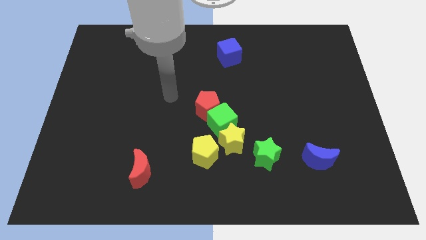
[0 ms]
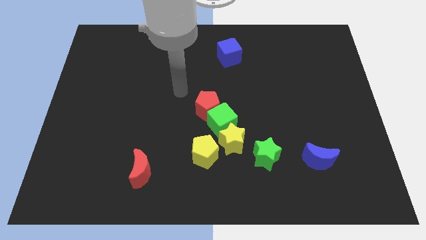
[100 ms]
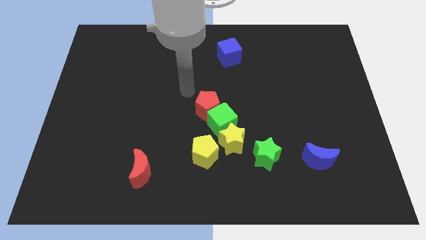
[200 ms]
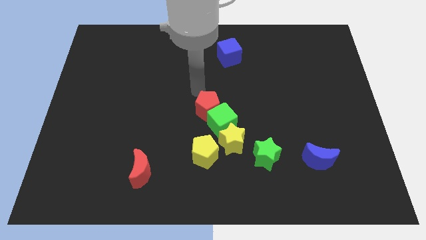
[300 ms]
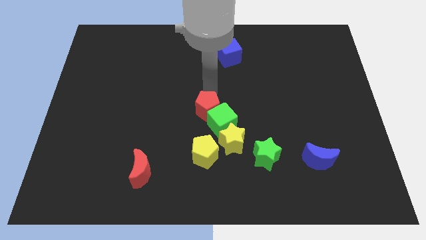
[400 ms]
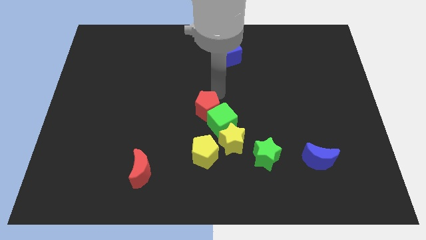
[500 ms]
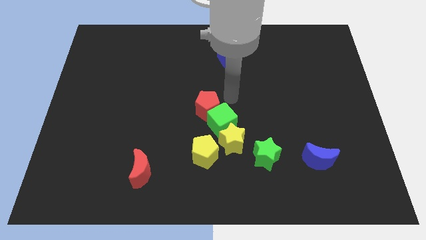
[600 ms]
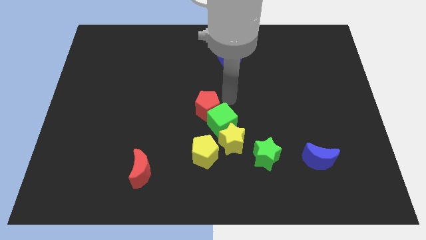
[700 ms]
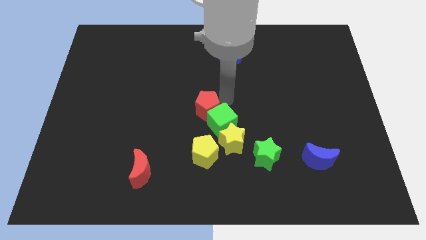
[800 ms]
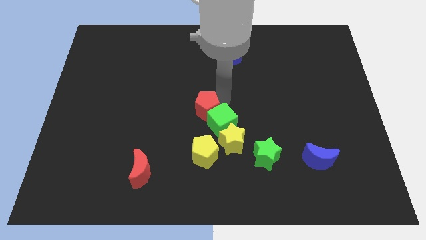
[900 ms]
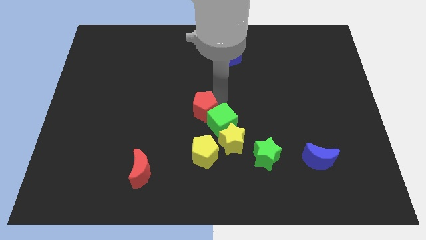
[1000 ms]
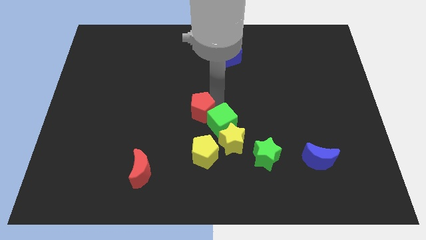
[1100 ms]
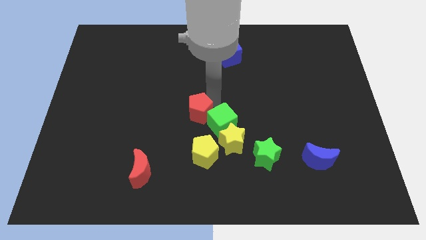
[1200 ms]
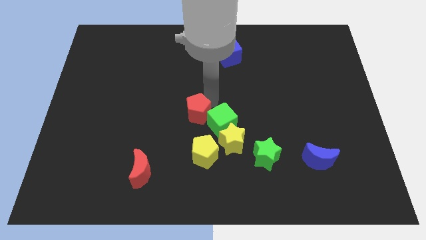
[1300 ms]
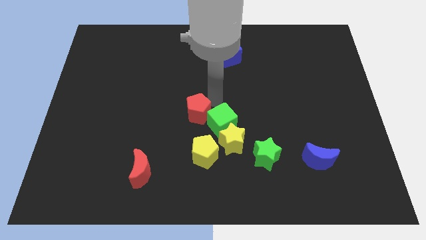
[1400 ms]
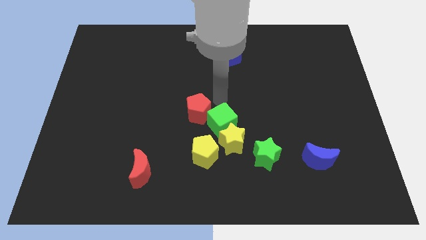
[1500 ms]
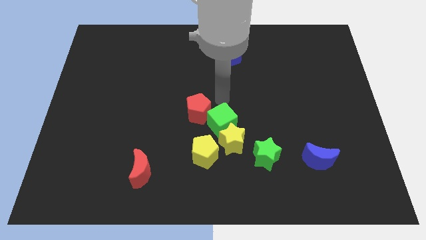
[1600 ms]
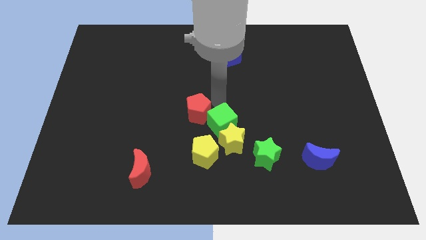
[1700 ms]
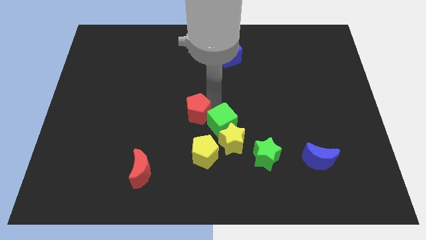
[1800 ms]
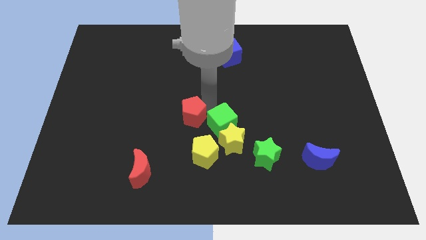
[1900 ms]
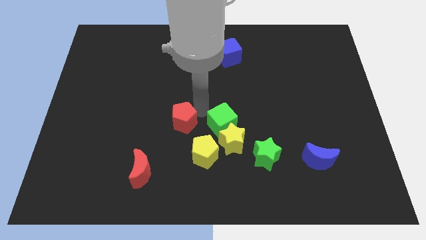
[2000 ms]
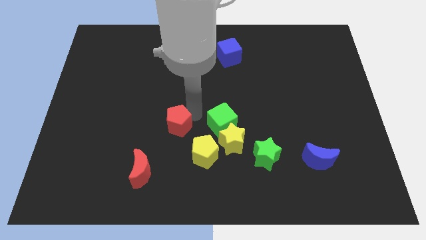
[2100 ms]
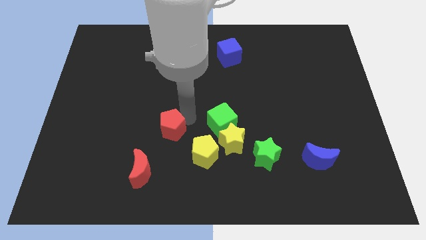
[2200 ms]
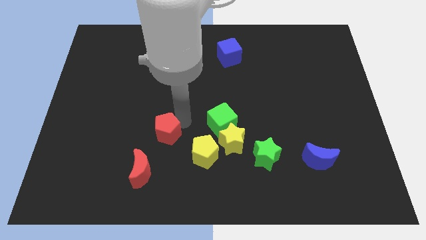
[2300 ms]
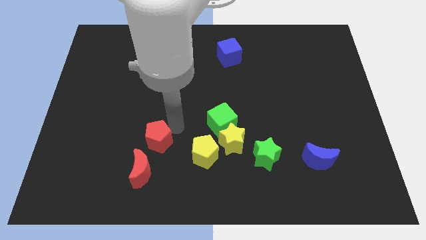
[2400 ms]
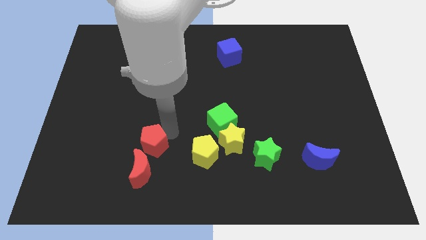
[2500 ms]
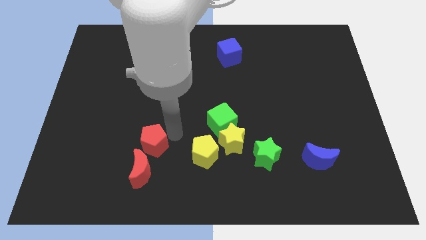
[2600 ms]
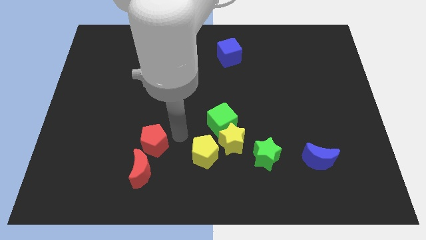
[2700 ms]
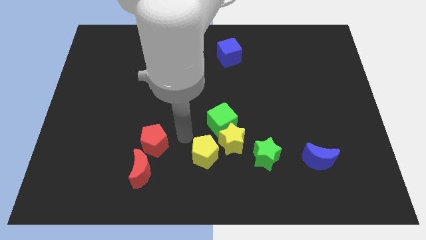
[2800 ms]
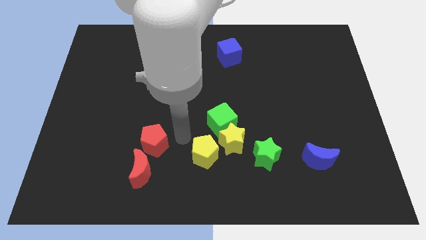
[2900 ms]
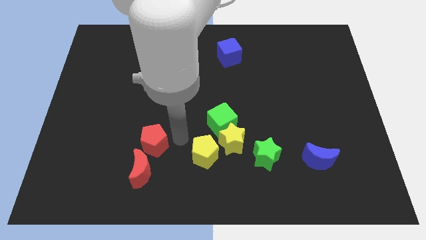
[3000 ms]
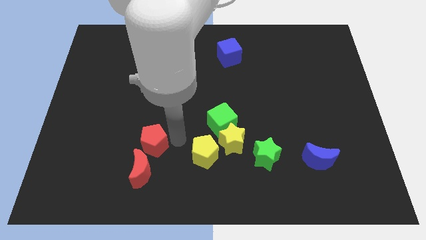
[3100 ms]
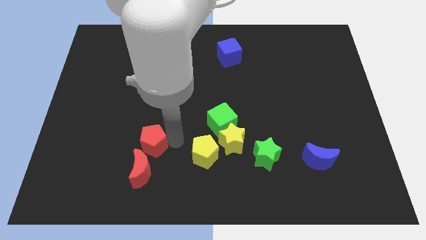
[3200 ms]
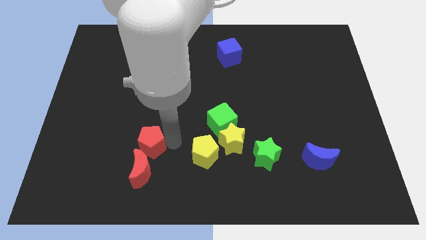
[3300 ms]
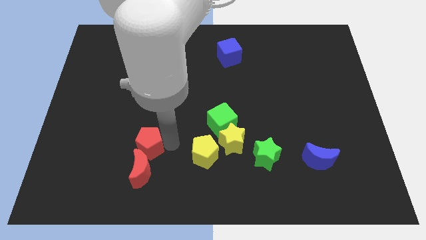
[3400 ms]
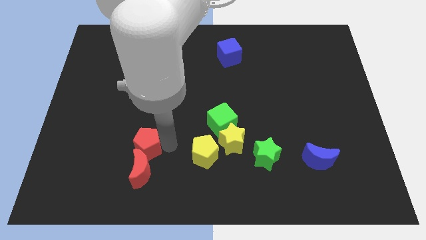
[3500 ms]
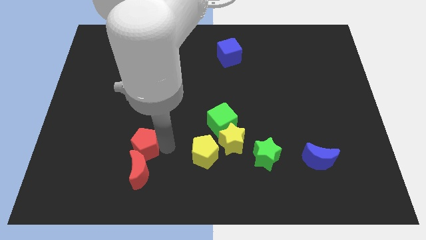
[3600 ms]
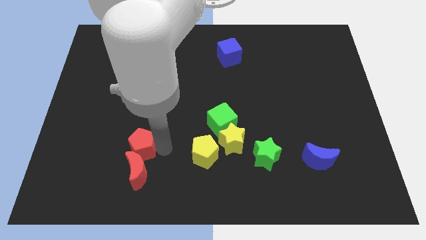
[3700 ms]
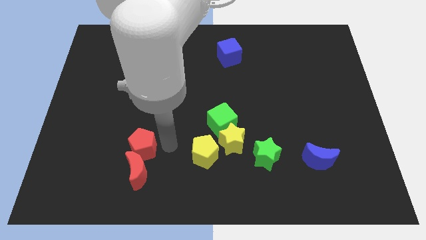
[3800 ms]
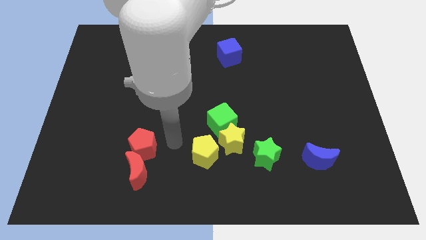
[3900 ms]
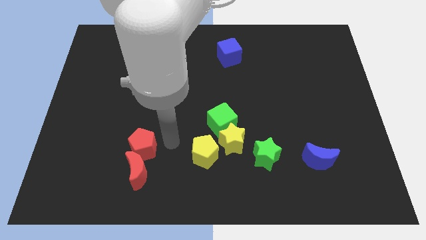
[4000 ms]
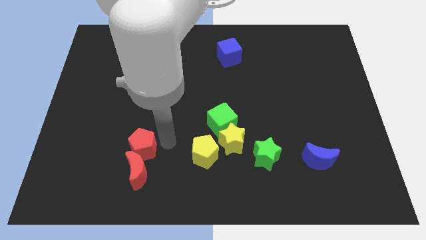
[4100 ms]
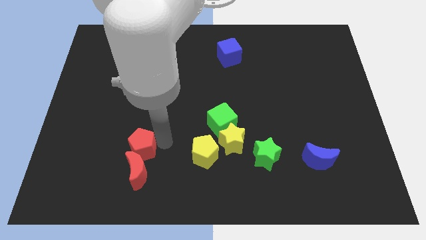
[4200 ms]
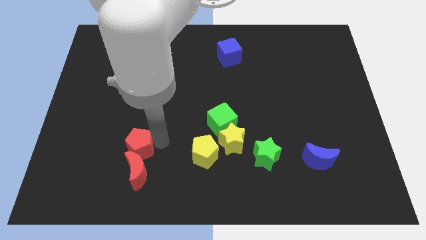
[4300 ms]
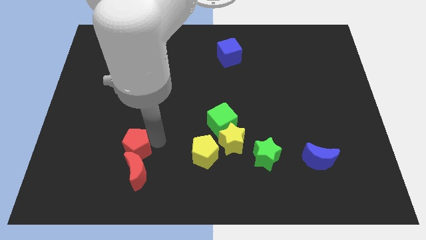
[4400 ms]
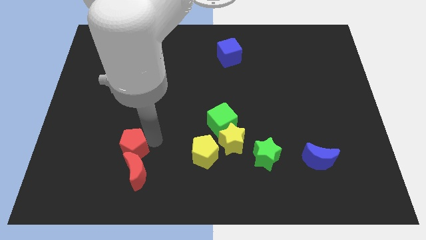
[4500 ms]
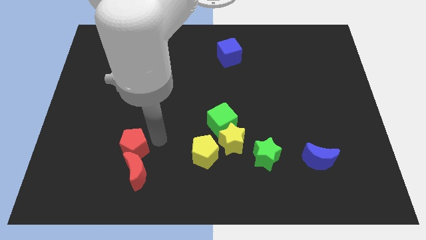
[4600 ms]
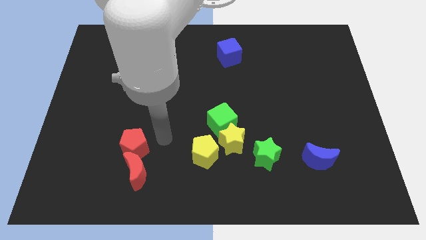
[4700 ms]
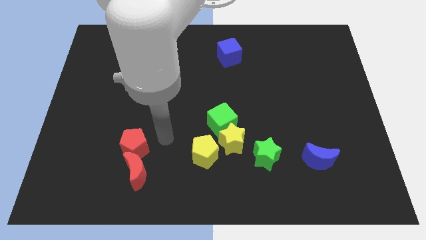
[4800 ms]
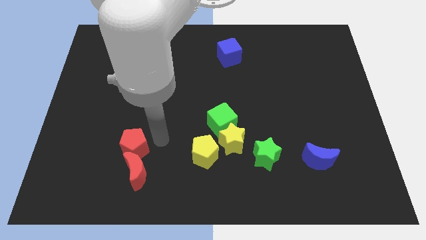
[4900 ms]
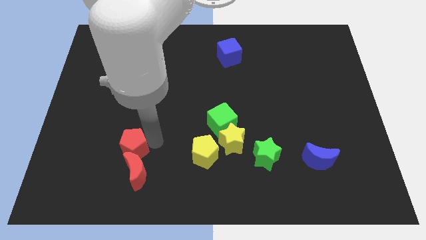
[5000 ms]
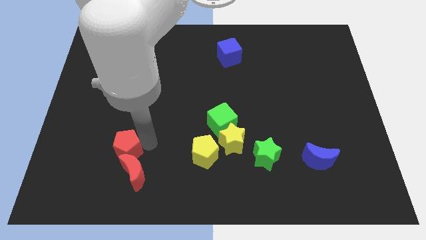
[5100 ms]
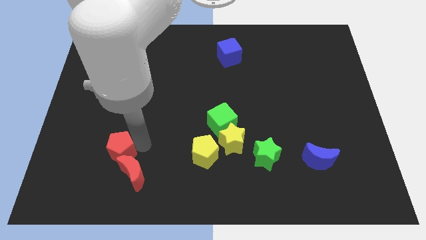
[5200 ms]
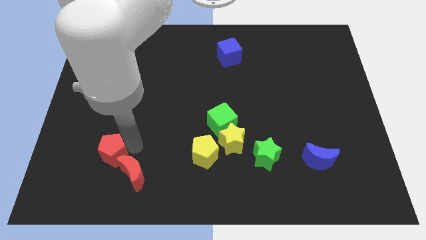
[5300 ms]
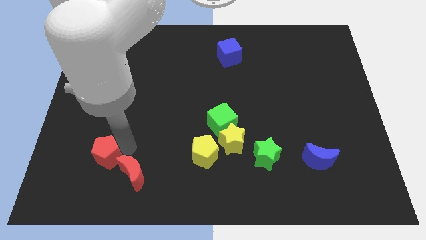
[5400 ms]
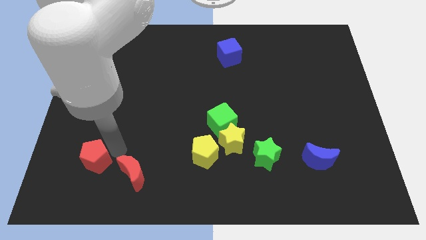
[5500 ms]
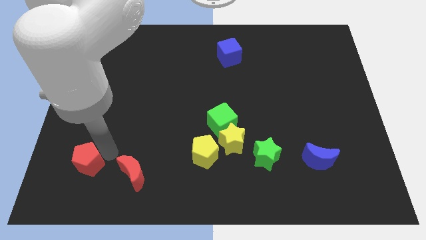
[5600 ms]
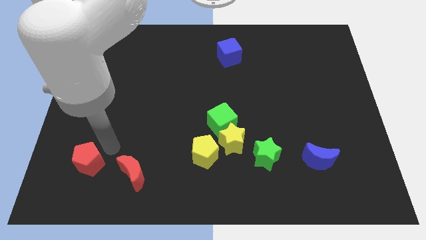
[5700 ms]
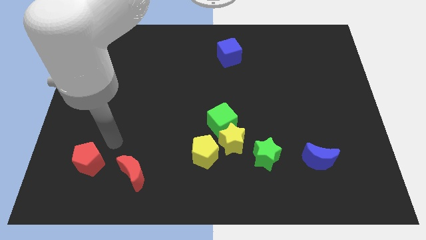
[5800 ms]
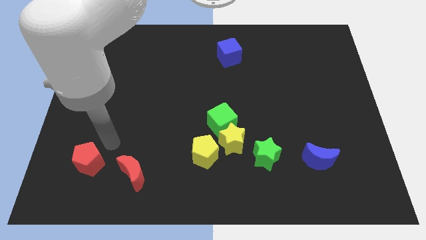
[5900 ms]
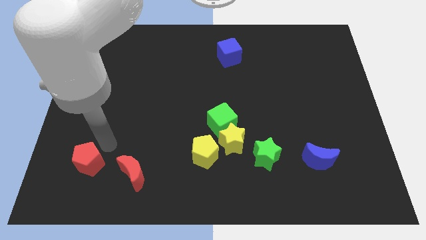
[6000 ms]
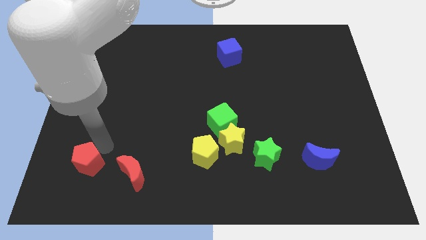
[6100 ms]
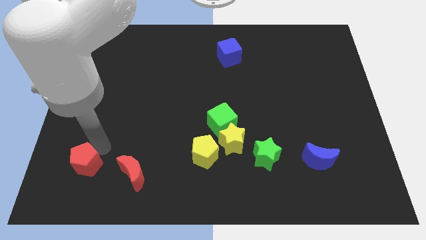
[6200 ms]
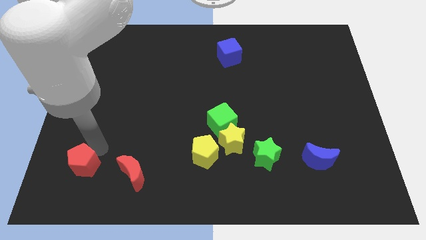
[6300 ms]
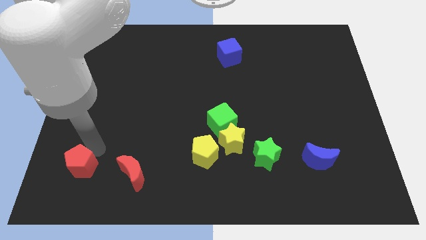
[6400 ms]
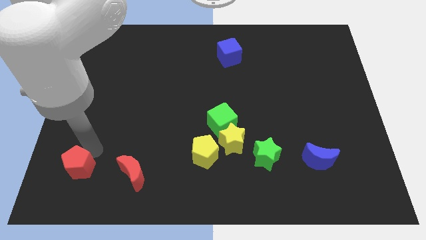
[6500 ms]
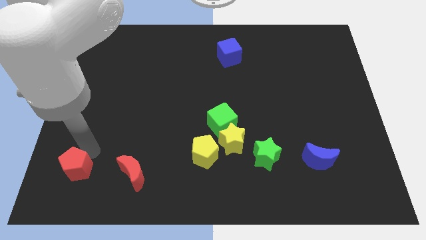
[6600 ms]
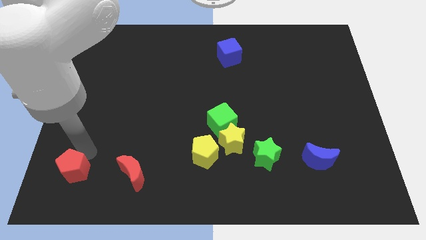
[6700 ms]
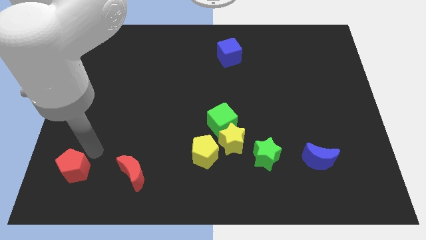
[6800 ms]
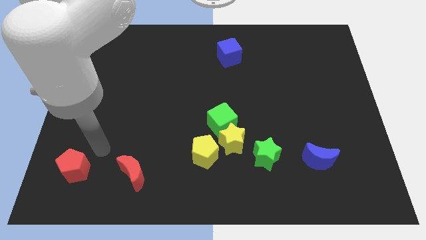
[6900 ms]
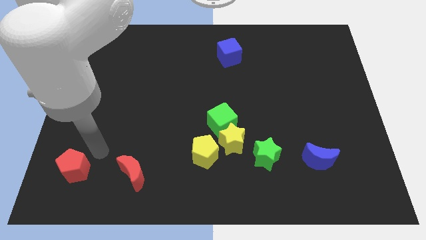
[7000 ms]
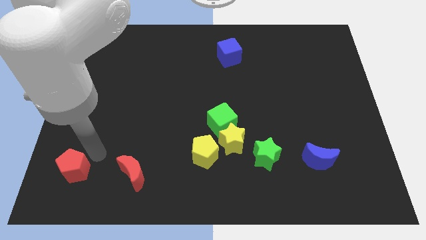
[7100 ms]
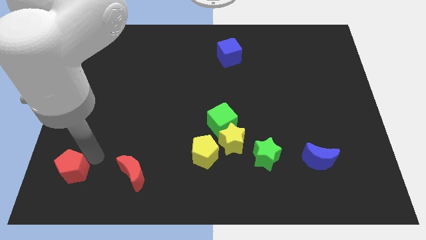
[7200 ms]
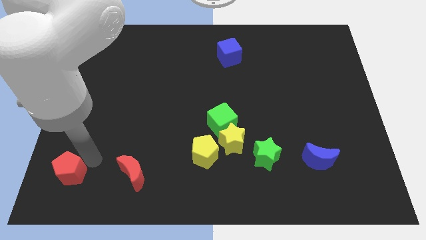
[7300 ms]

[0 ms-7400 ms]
slide the red pentagon to the bottom left
